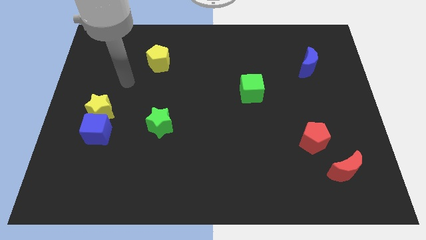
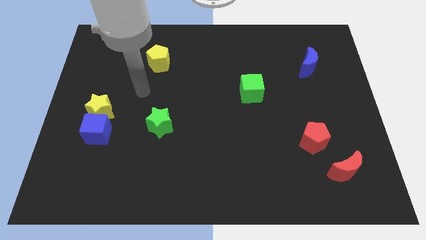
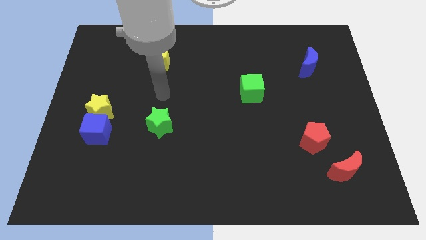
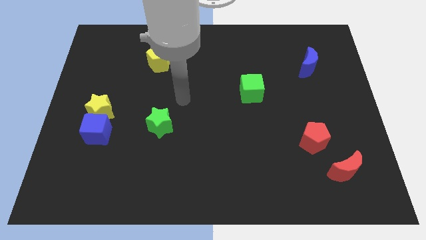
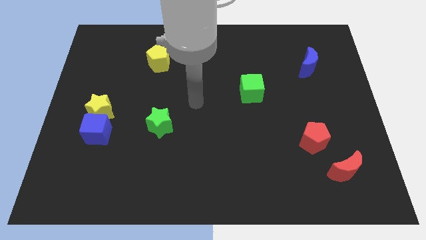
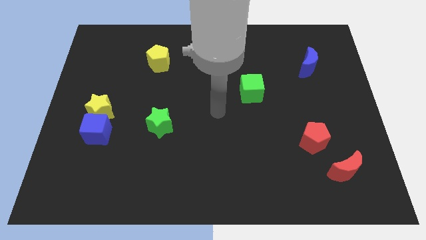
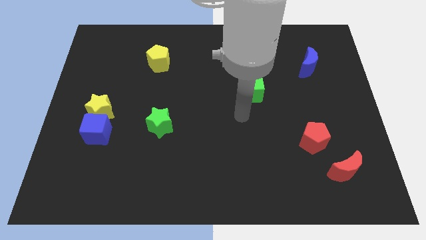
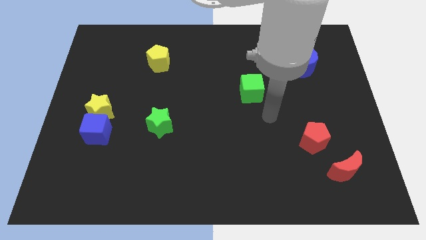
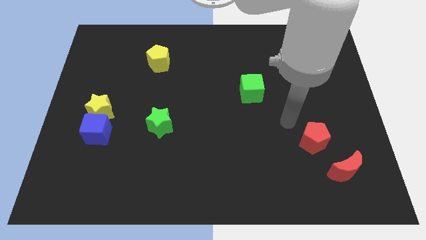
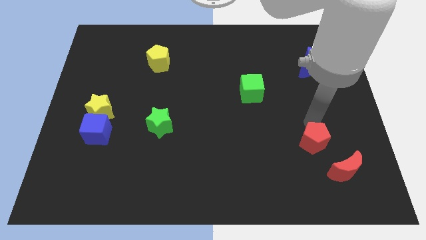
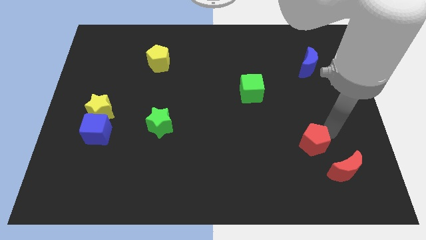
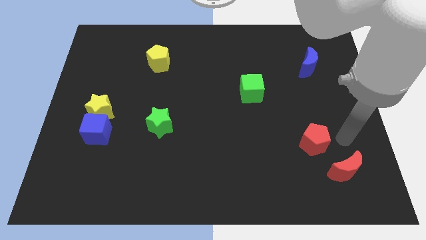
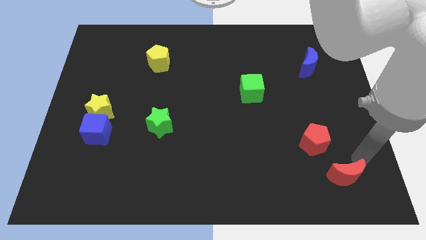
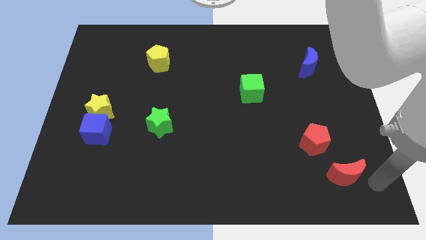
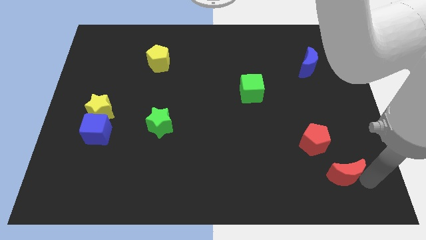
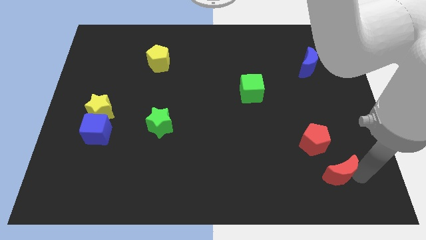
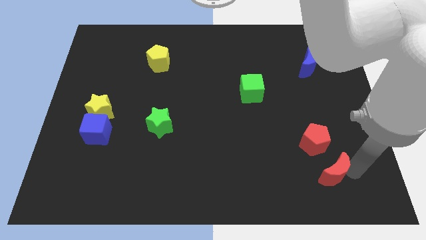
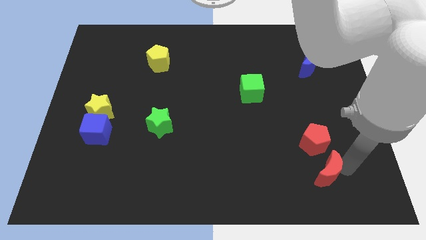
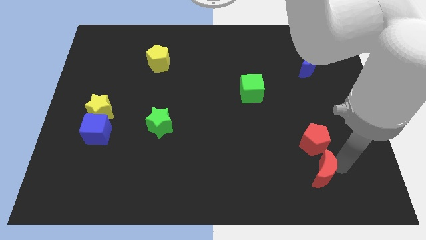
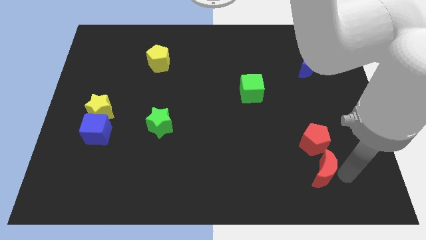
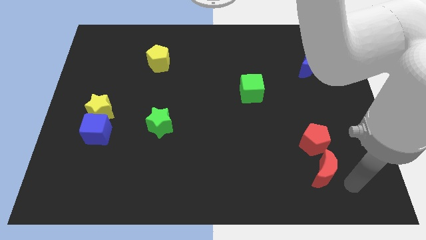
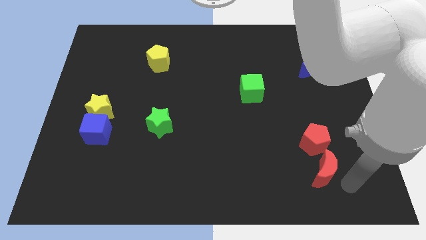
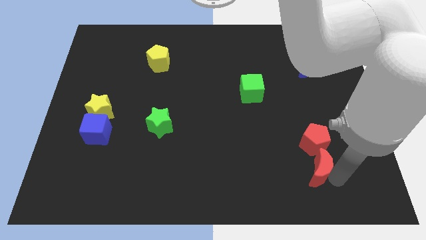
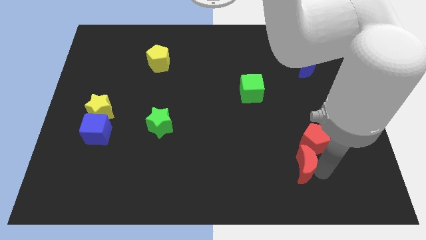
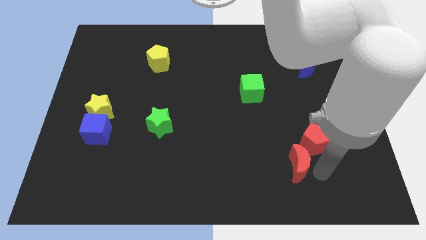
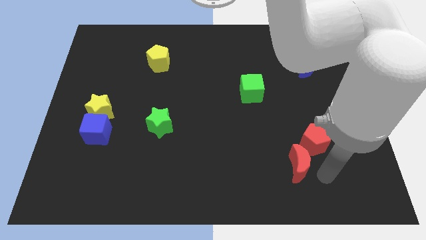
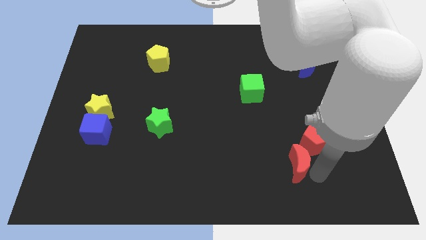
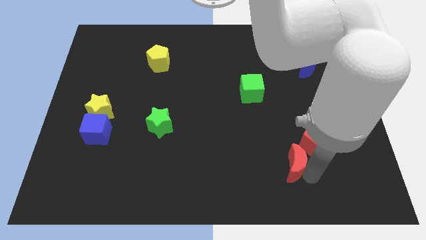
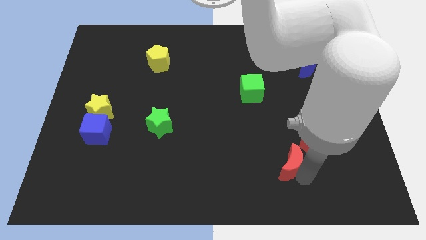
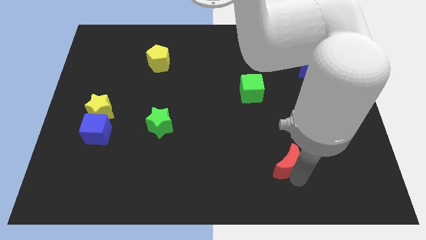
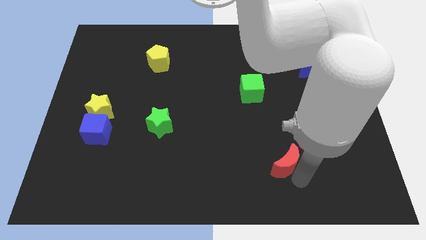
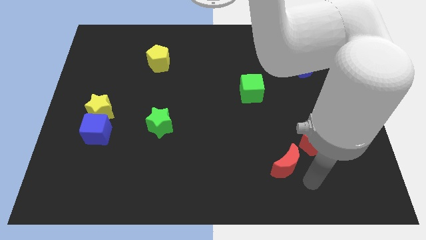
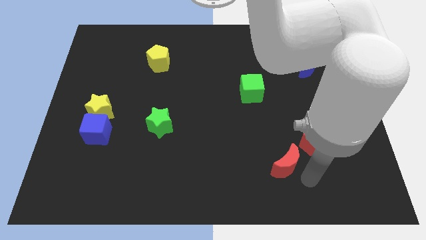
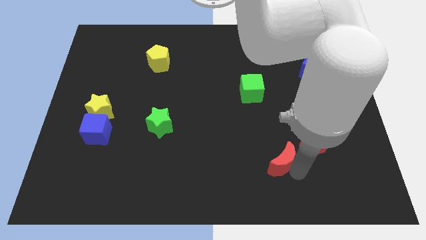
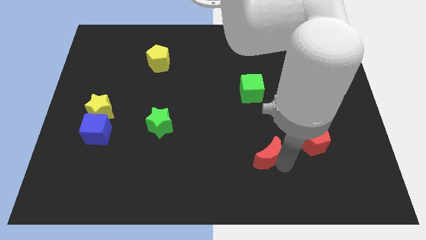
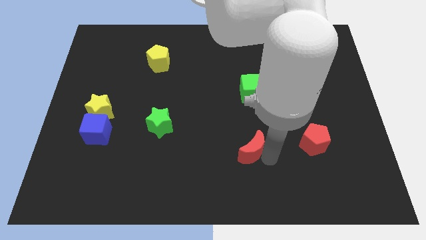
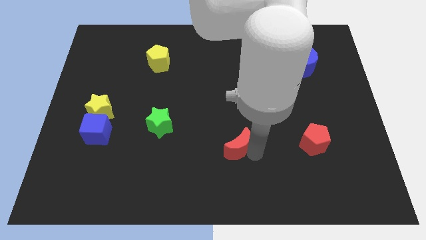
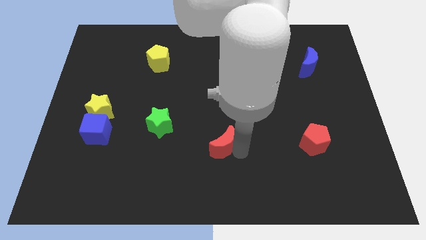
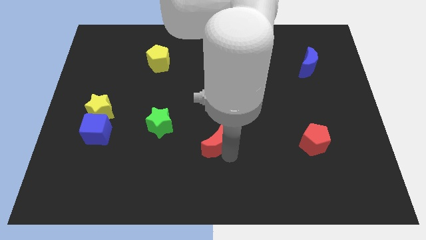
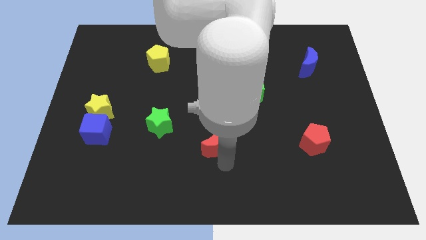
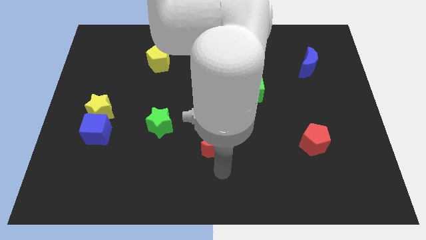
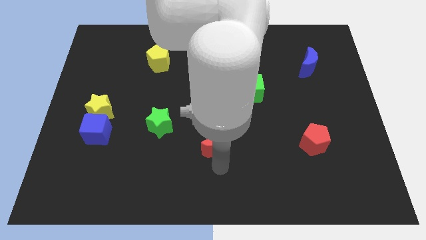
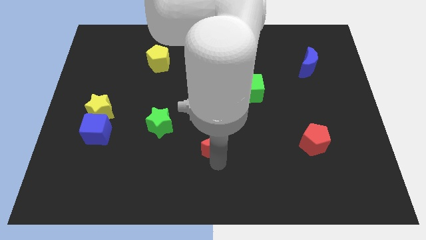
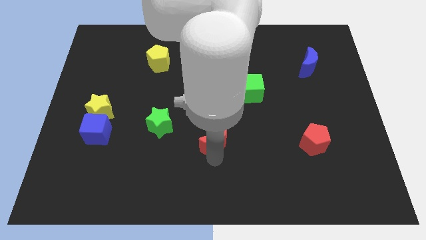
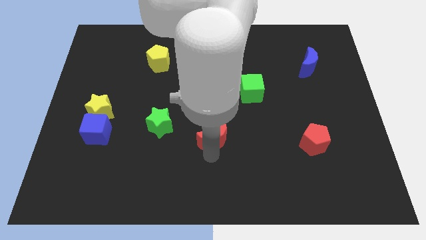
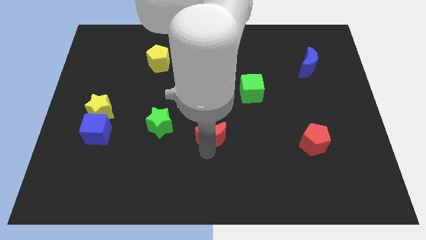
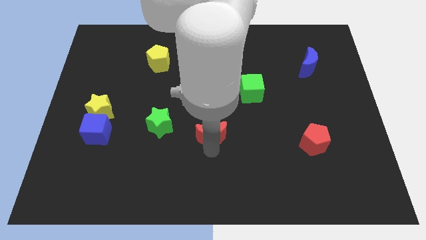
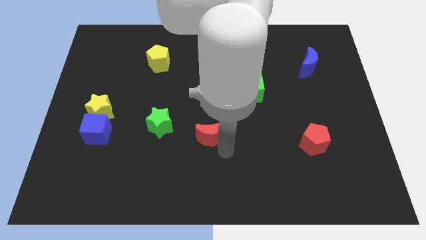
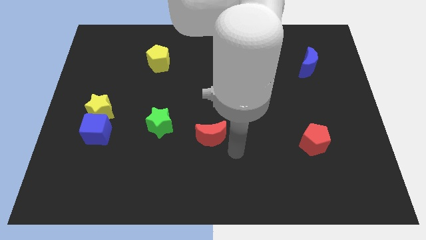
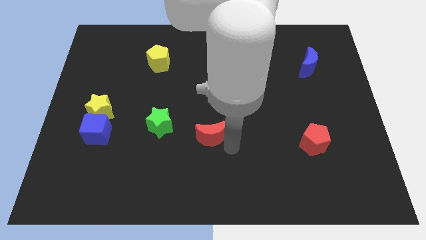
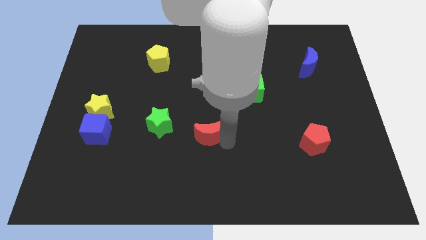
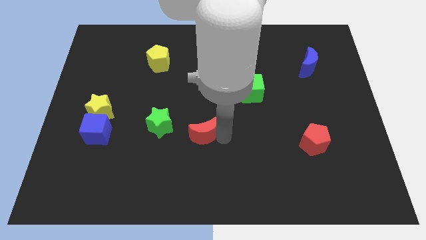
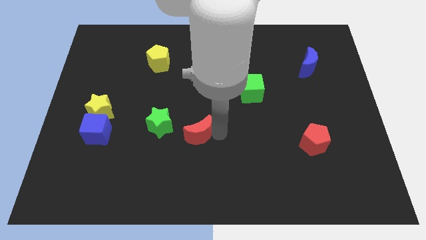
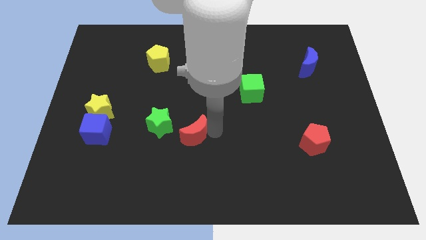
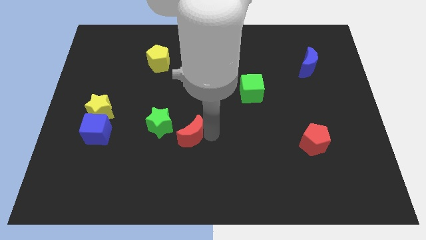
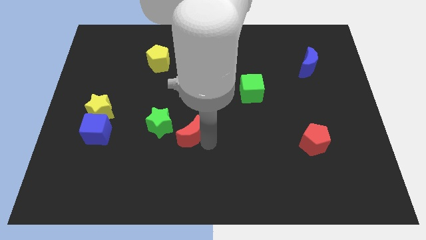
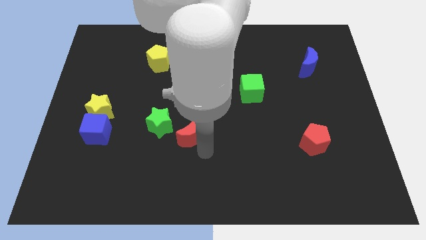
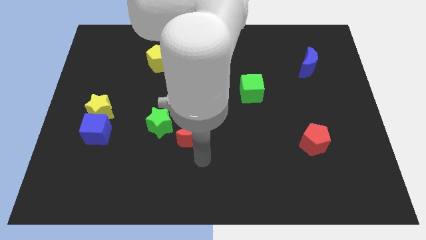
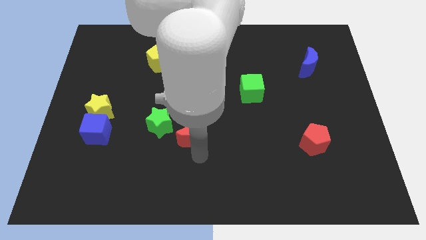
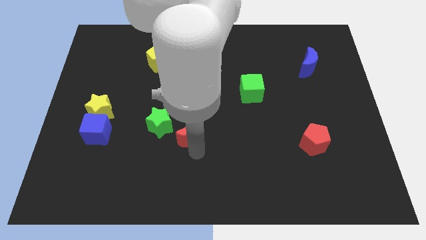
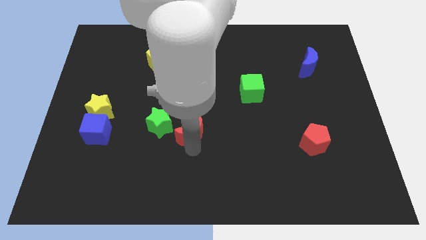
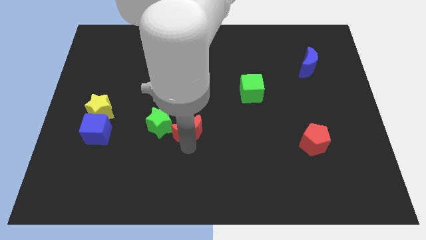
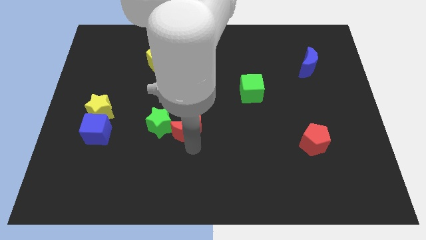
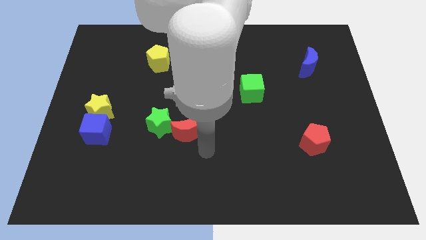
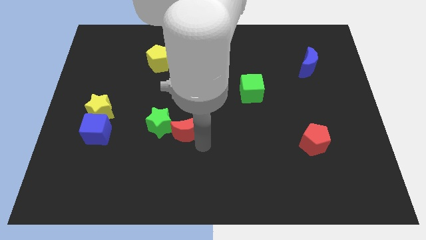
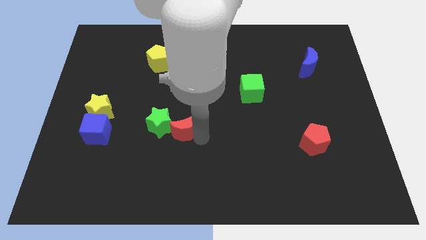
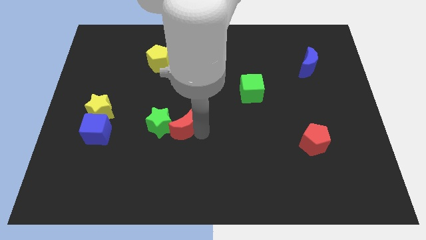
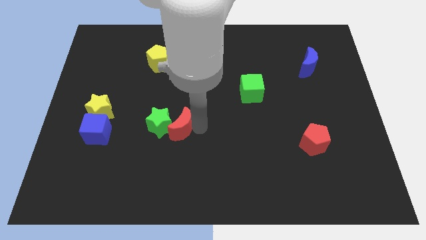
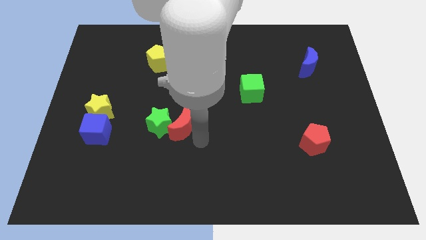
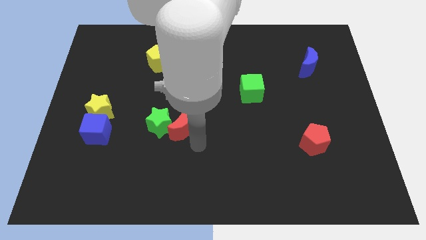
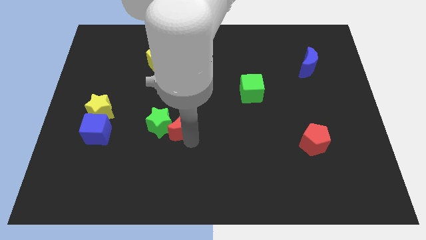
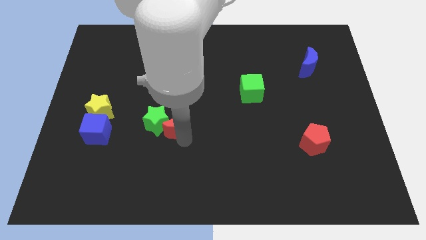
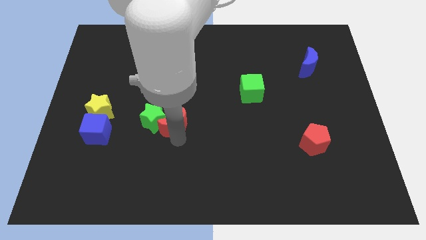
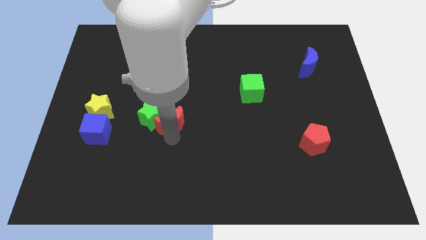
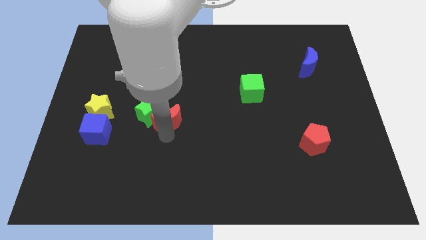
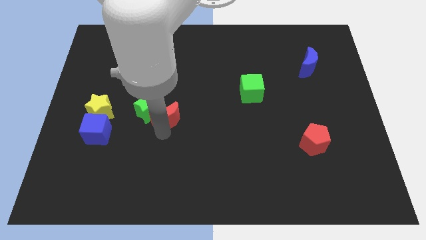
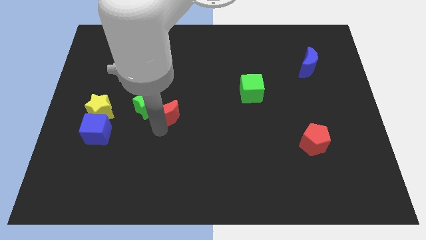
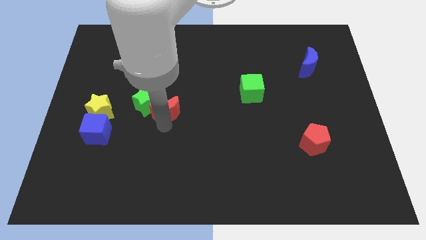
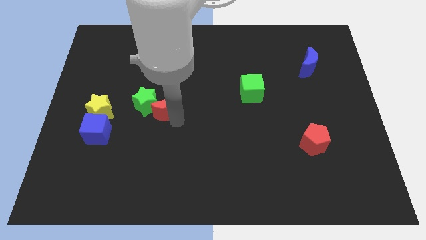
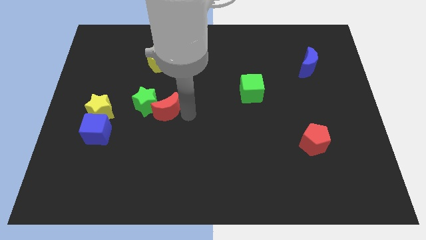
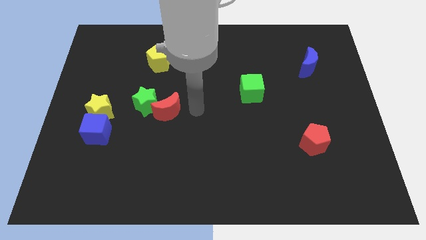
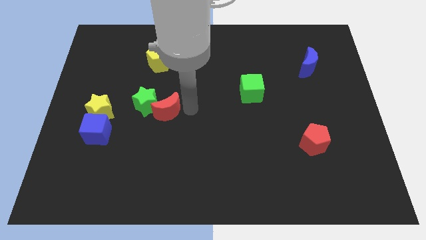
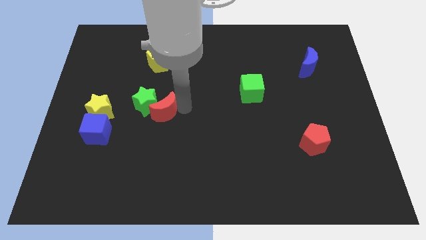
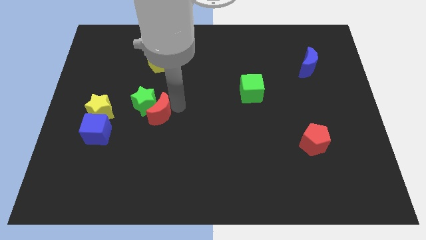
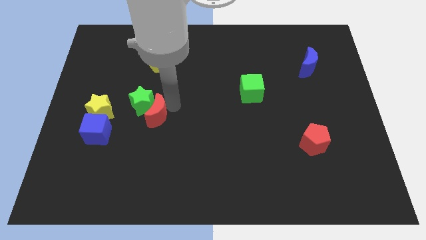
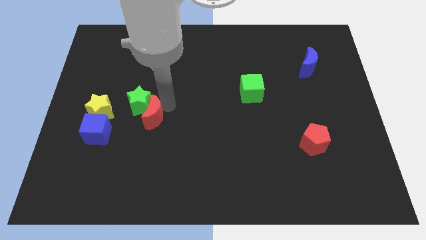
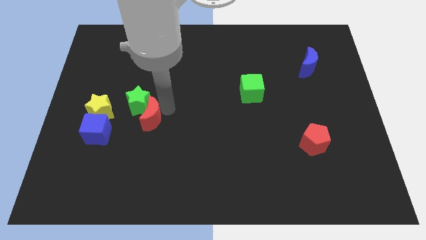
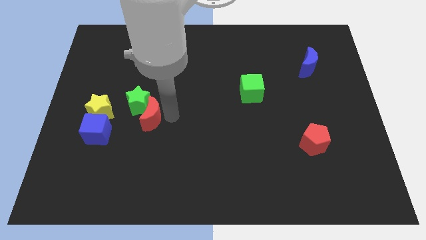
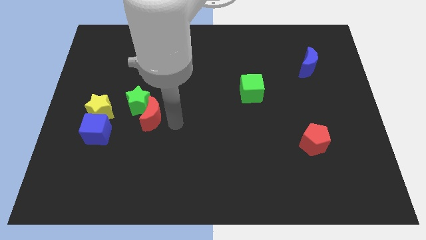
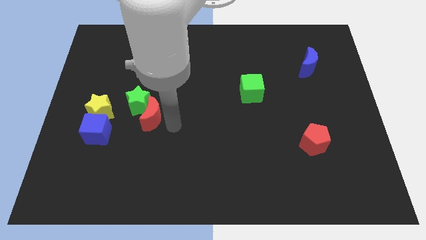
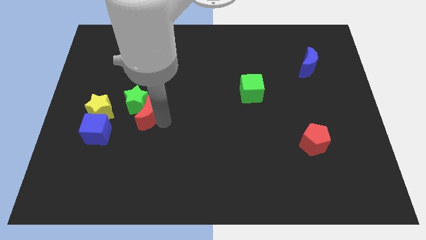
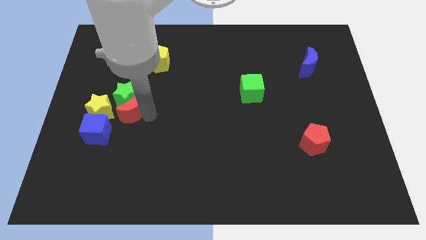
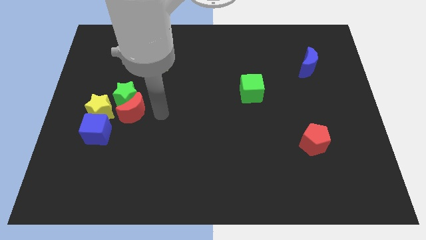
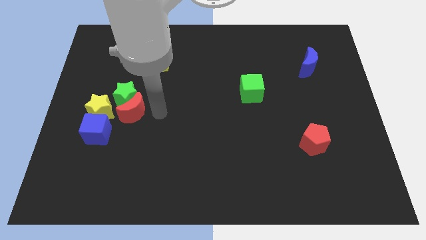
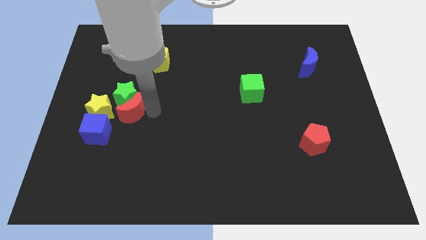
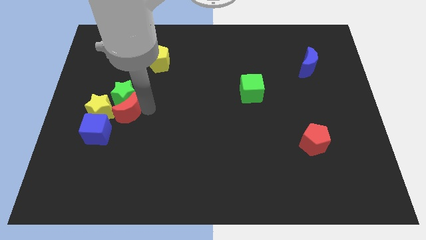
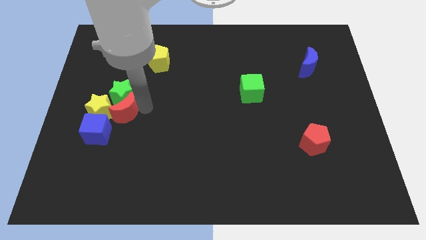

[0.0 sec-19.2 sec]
push the red moon to the yellow star
